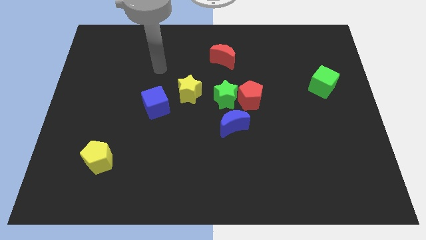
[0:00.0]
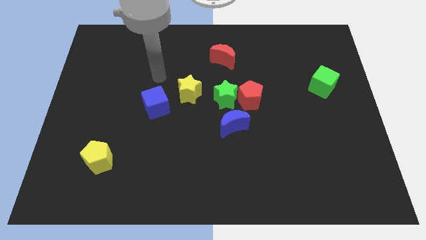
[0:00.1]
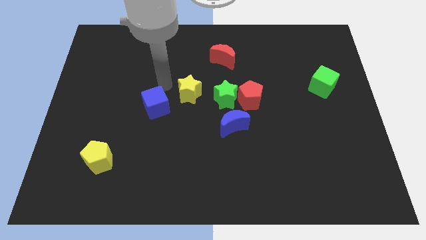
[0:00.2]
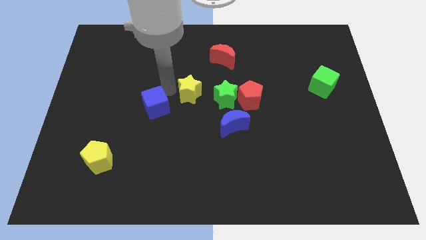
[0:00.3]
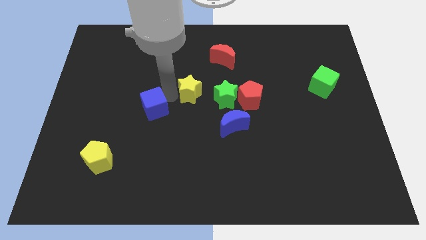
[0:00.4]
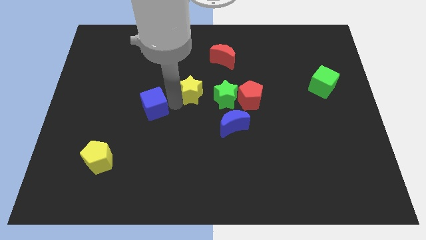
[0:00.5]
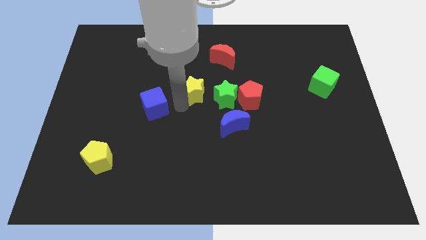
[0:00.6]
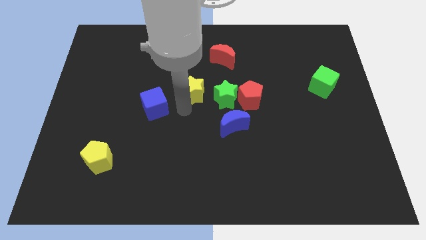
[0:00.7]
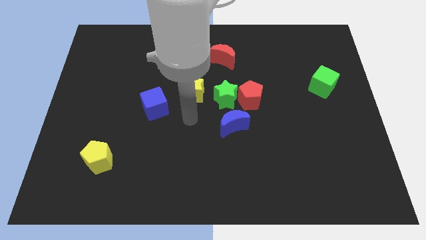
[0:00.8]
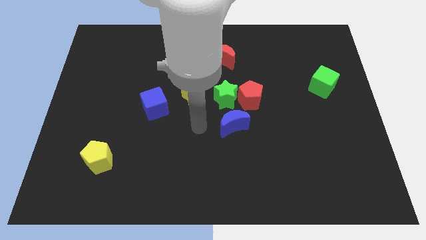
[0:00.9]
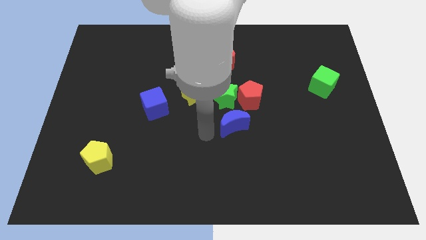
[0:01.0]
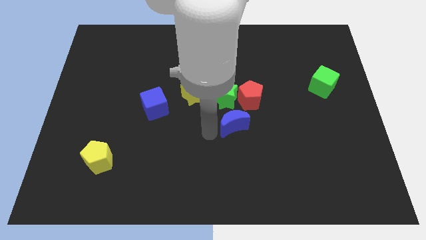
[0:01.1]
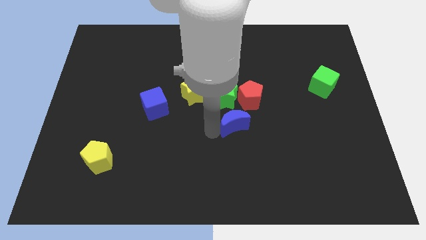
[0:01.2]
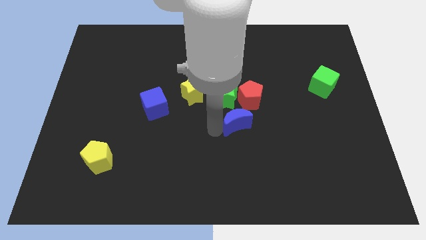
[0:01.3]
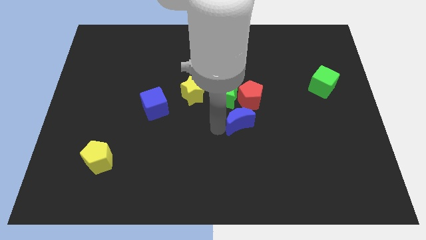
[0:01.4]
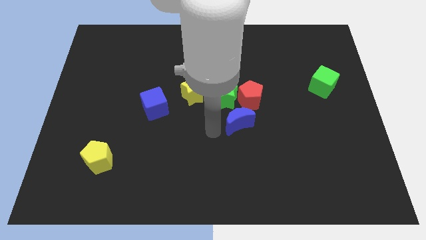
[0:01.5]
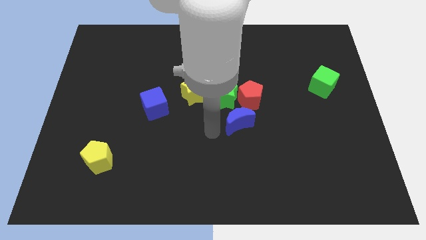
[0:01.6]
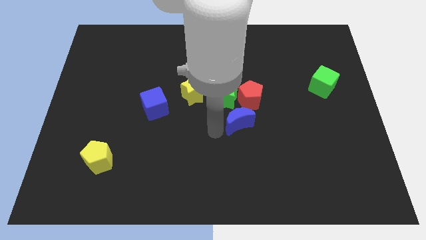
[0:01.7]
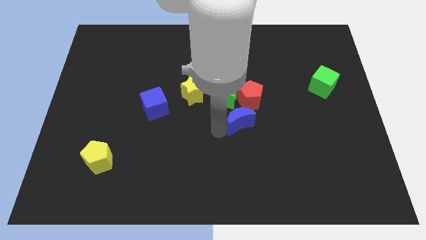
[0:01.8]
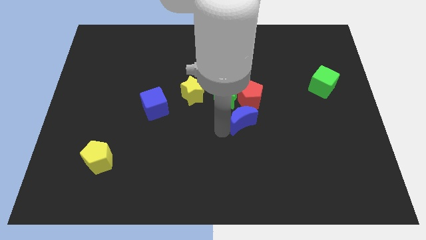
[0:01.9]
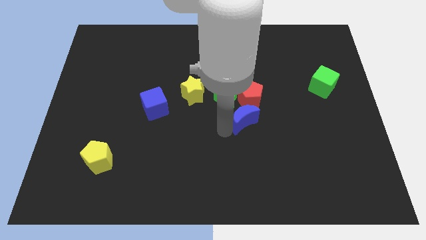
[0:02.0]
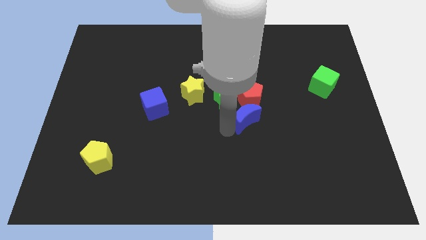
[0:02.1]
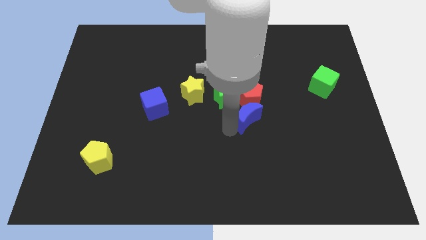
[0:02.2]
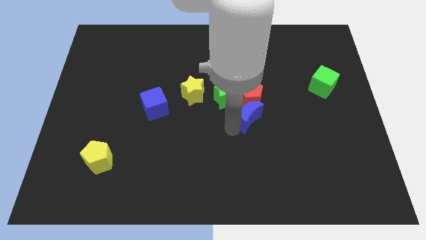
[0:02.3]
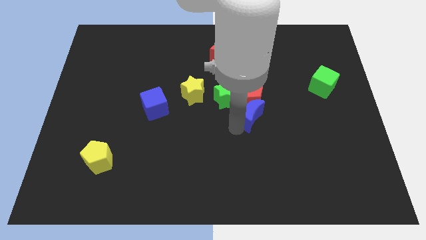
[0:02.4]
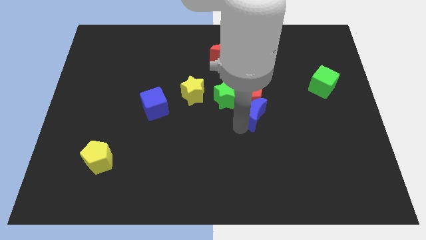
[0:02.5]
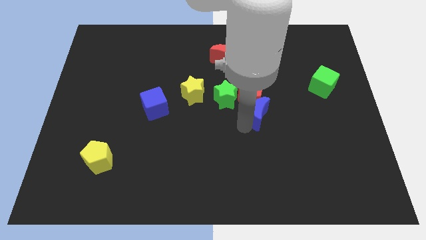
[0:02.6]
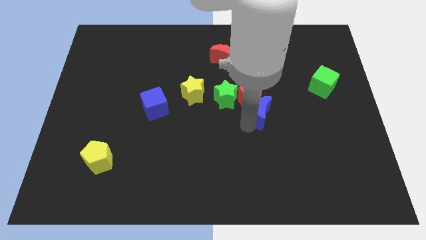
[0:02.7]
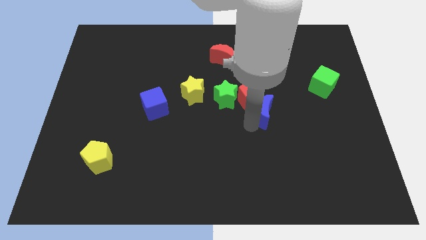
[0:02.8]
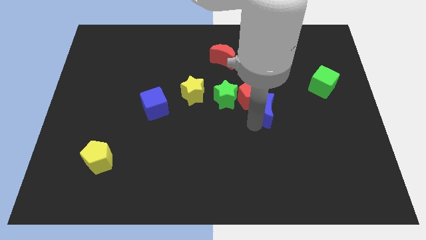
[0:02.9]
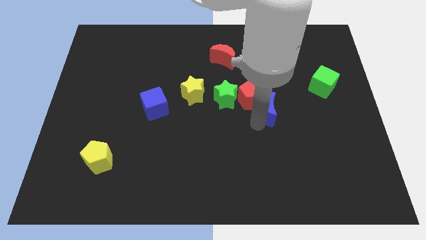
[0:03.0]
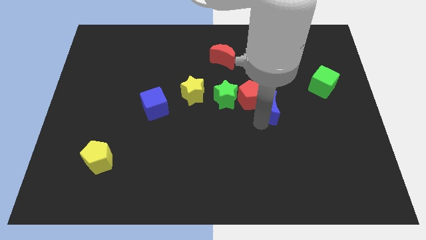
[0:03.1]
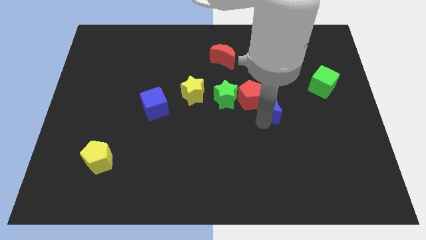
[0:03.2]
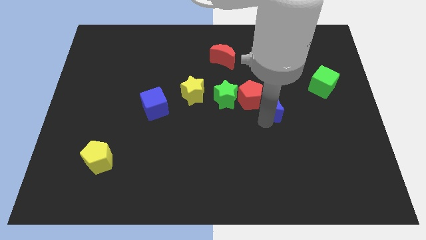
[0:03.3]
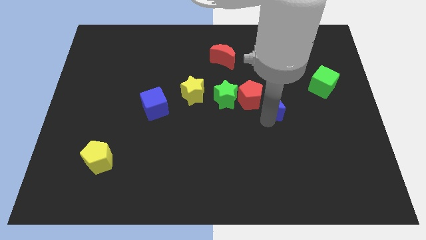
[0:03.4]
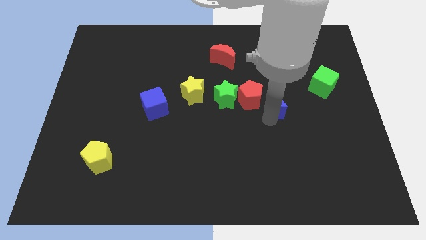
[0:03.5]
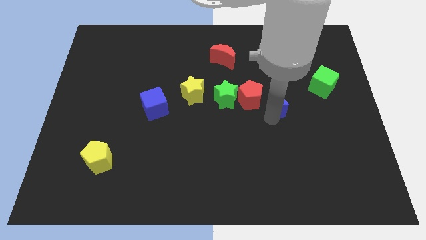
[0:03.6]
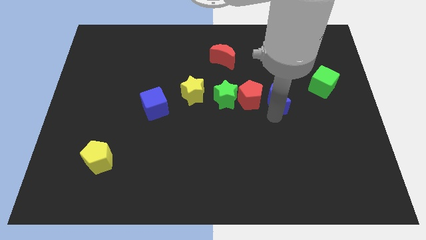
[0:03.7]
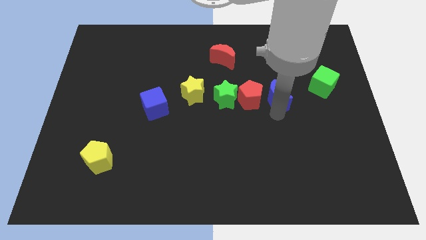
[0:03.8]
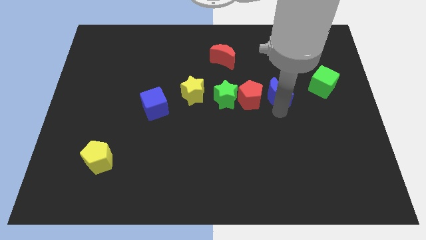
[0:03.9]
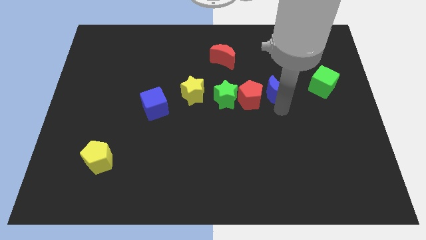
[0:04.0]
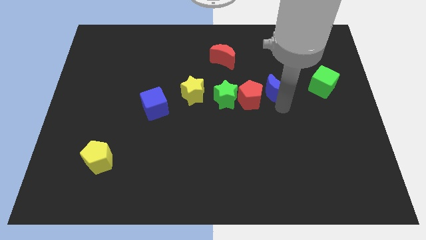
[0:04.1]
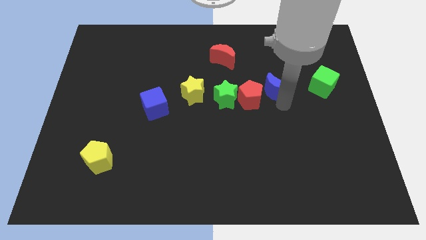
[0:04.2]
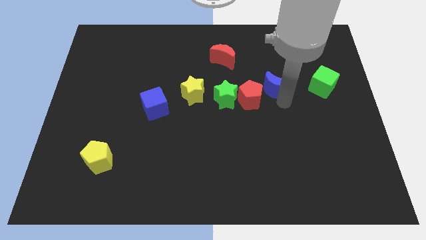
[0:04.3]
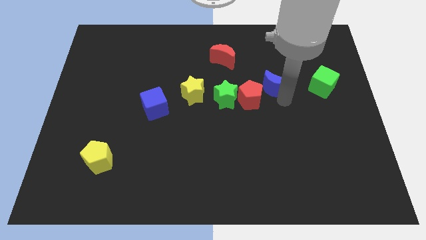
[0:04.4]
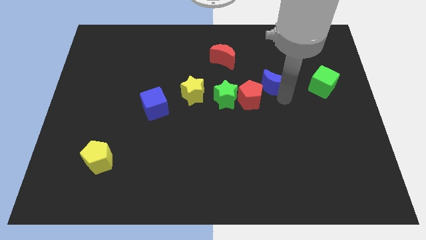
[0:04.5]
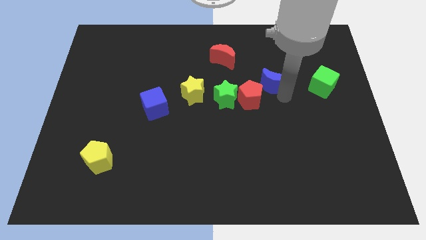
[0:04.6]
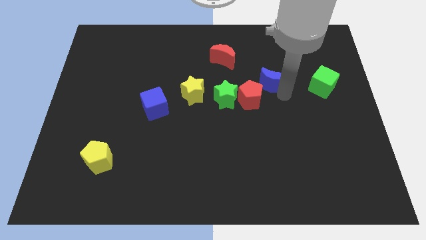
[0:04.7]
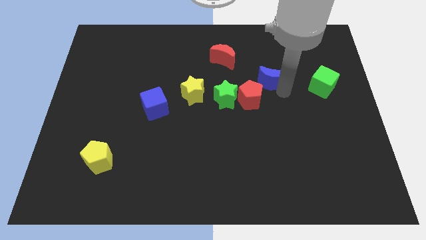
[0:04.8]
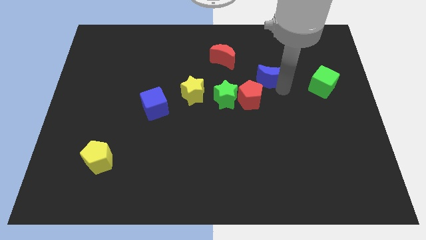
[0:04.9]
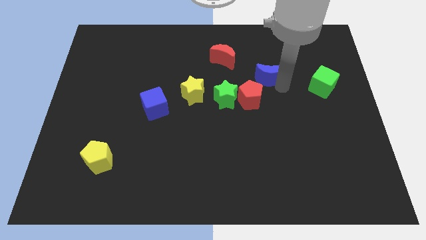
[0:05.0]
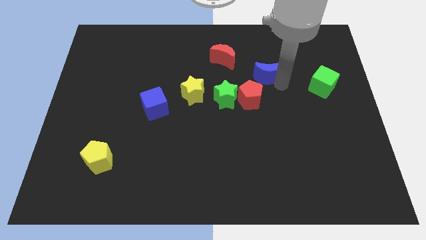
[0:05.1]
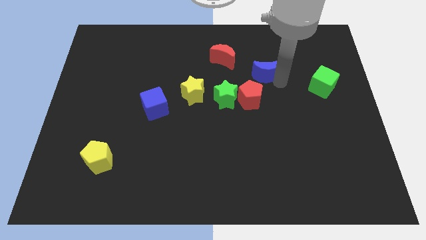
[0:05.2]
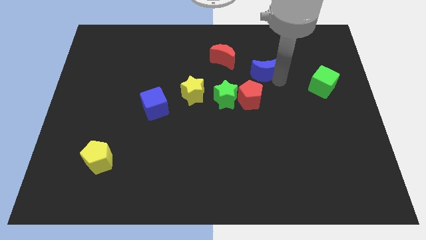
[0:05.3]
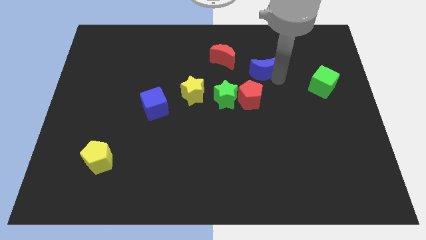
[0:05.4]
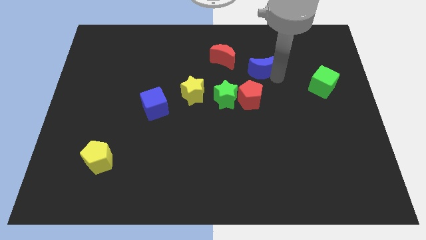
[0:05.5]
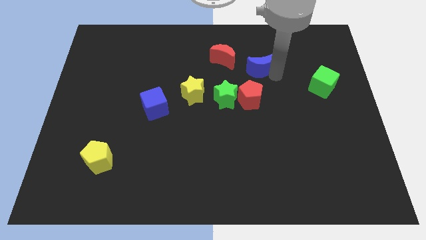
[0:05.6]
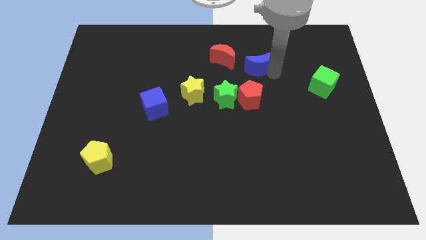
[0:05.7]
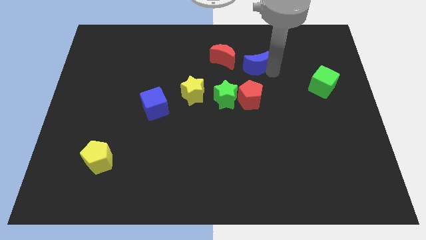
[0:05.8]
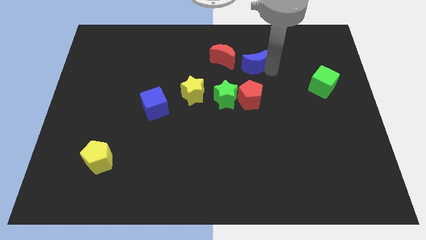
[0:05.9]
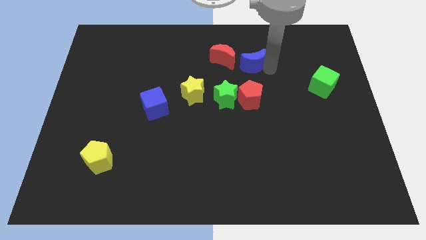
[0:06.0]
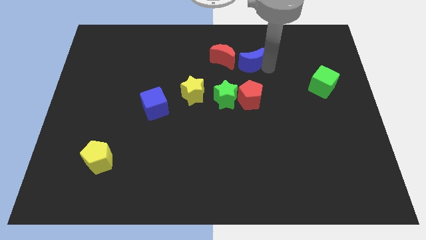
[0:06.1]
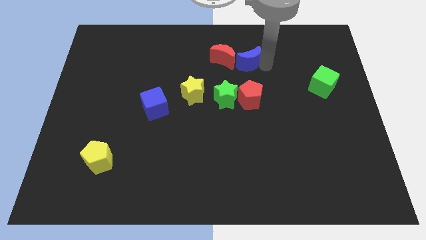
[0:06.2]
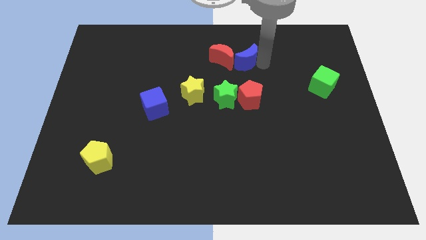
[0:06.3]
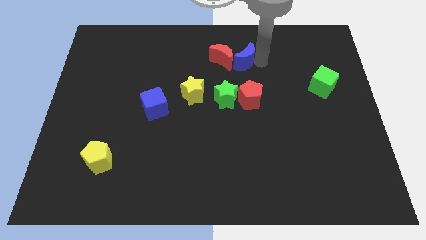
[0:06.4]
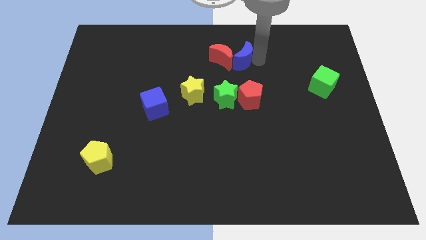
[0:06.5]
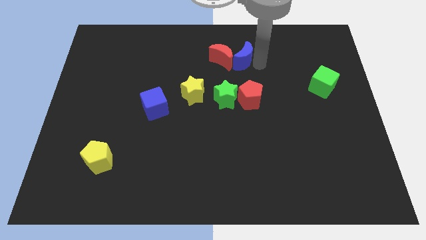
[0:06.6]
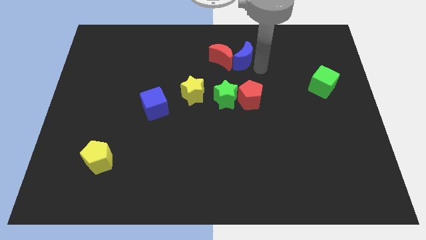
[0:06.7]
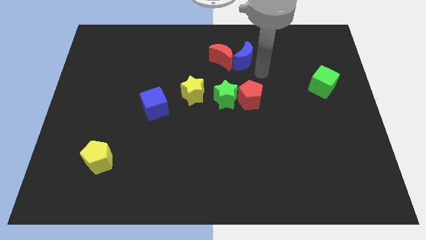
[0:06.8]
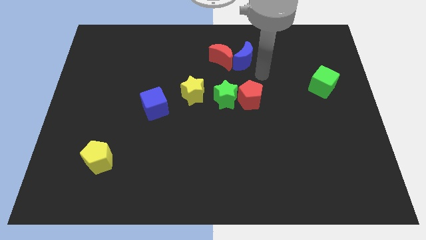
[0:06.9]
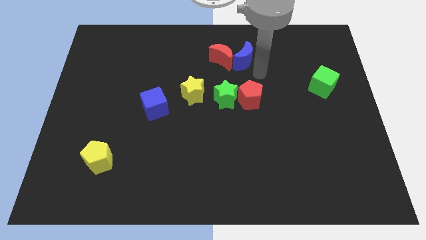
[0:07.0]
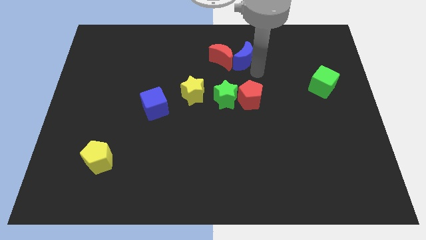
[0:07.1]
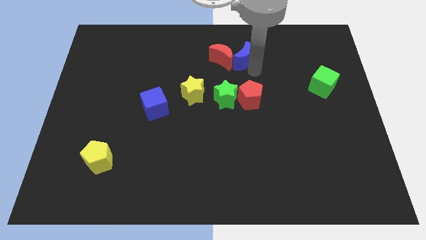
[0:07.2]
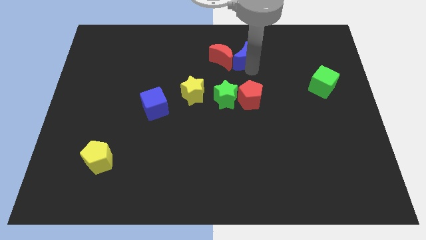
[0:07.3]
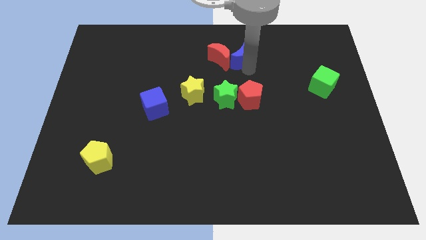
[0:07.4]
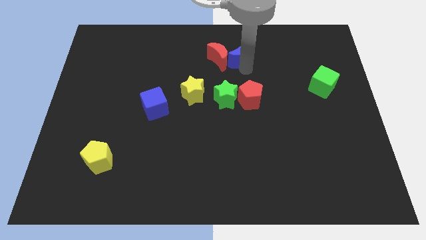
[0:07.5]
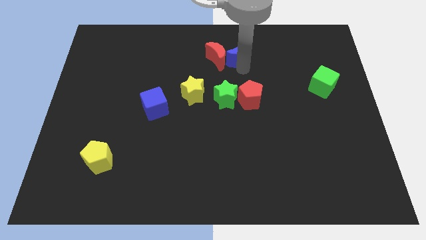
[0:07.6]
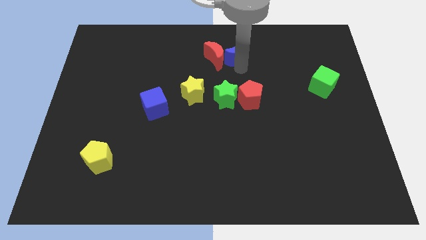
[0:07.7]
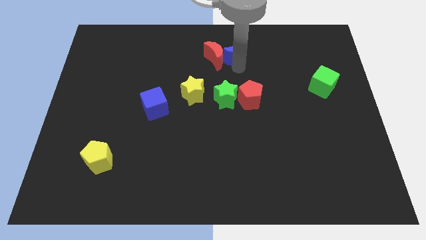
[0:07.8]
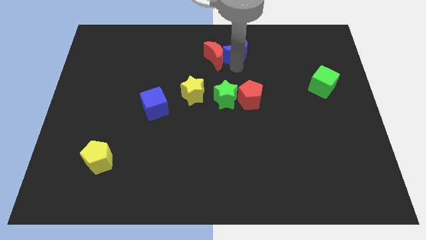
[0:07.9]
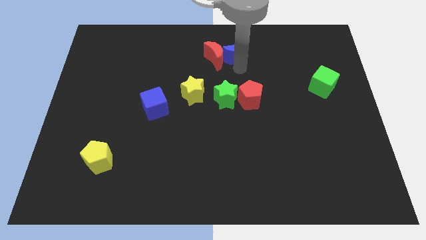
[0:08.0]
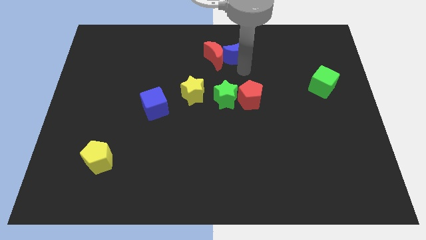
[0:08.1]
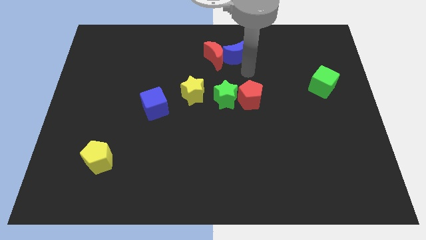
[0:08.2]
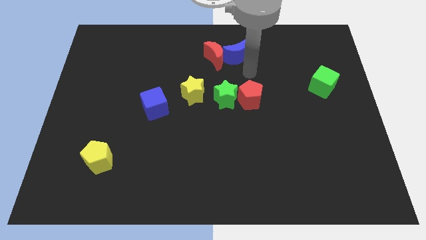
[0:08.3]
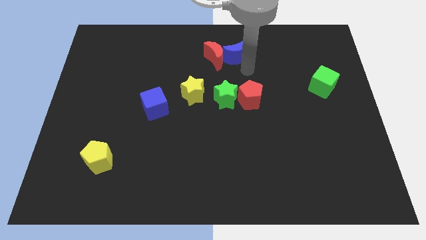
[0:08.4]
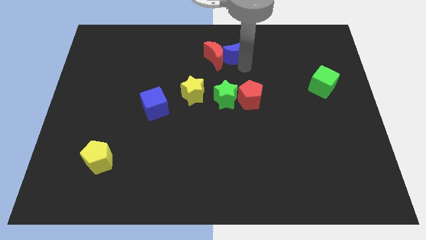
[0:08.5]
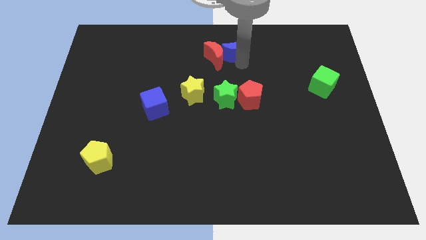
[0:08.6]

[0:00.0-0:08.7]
put the blue moon to the towards your base
